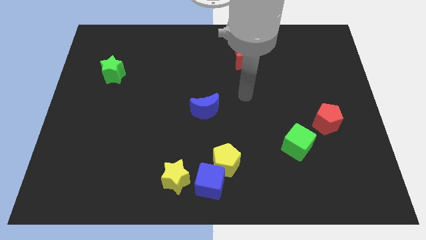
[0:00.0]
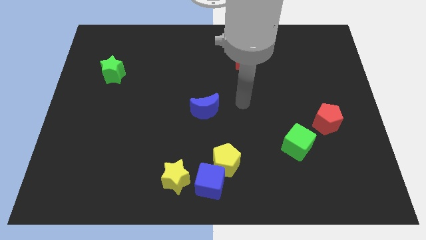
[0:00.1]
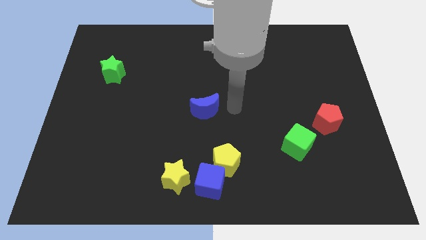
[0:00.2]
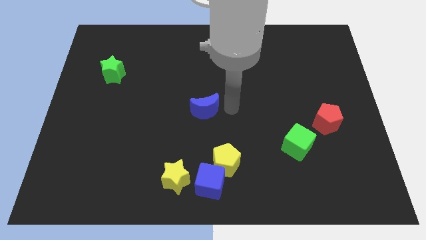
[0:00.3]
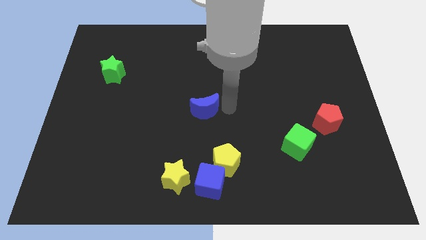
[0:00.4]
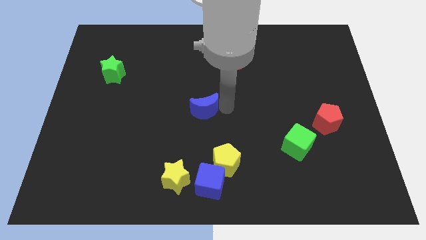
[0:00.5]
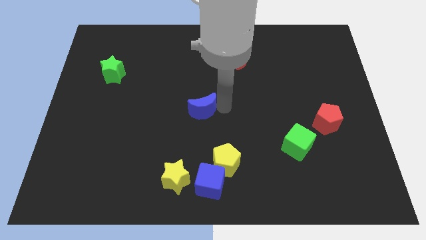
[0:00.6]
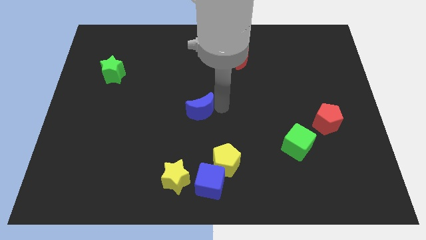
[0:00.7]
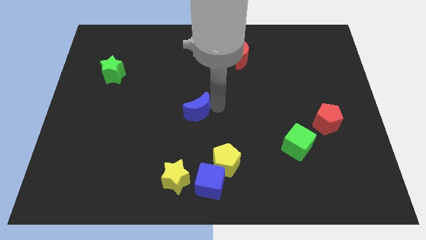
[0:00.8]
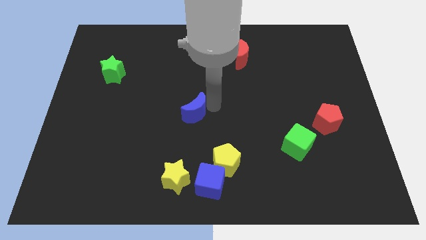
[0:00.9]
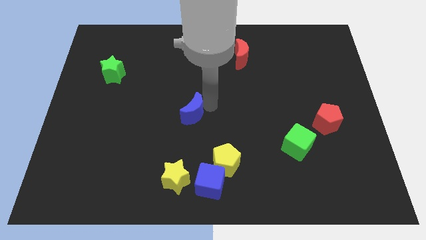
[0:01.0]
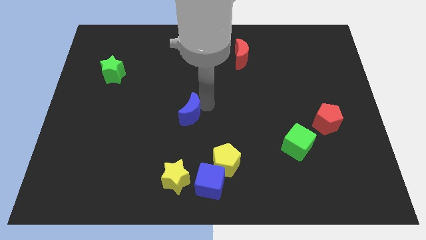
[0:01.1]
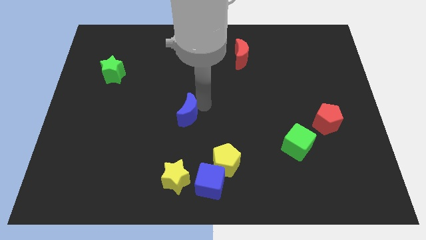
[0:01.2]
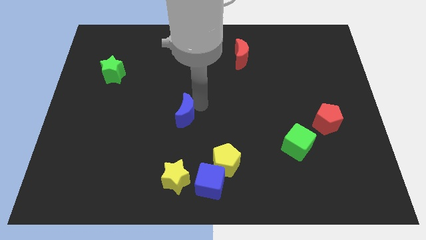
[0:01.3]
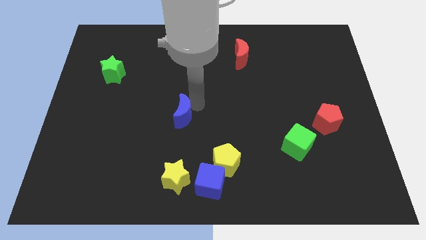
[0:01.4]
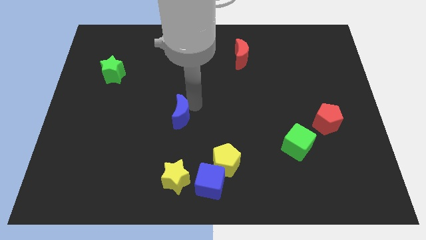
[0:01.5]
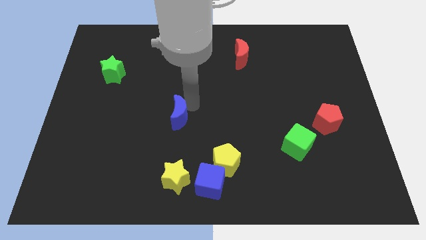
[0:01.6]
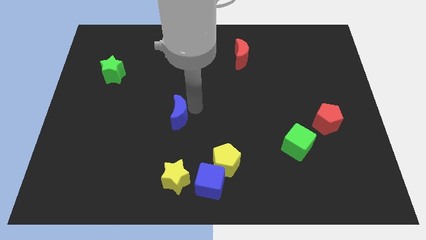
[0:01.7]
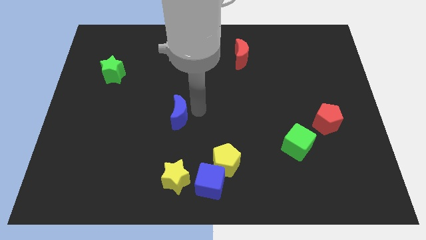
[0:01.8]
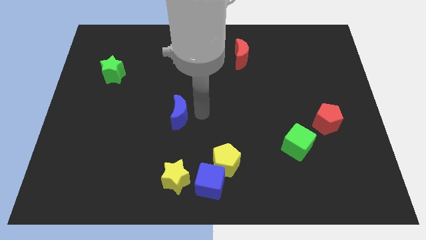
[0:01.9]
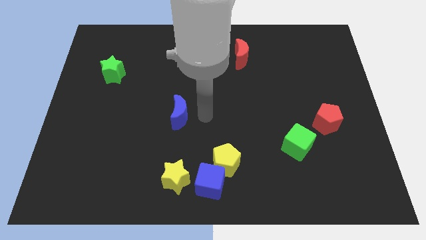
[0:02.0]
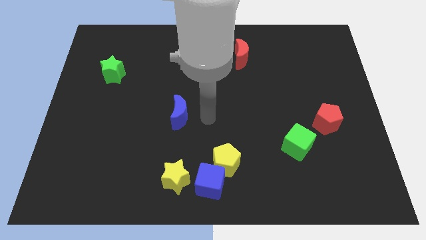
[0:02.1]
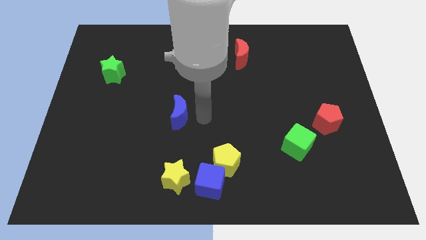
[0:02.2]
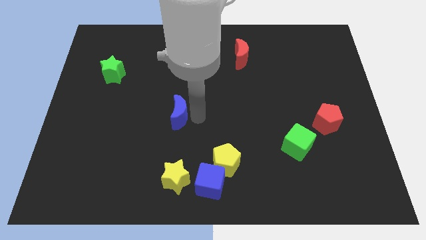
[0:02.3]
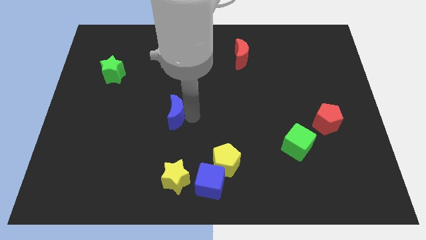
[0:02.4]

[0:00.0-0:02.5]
move the blue moon to the left a little bit

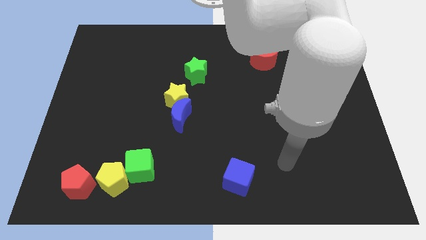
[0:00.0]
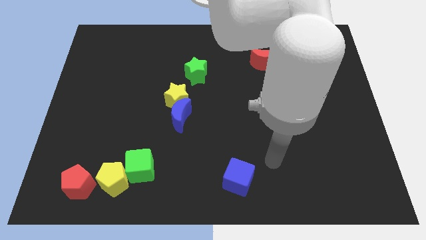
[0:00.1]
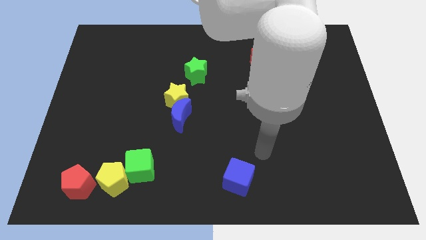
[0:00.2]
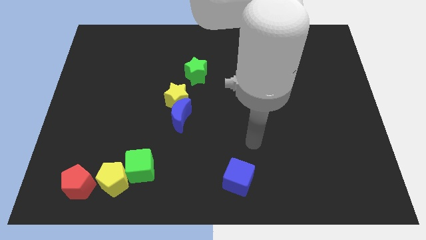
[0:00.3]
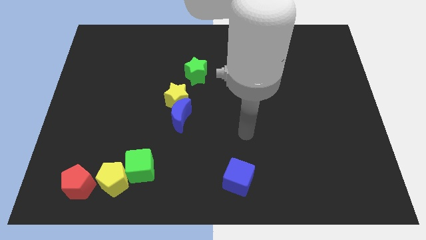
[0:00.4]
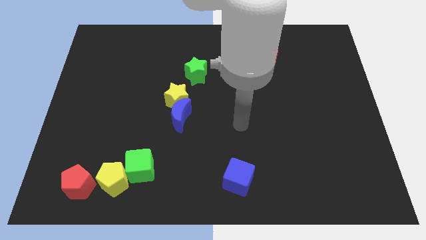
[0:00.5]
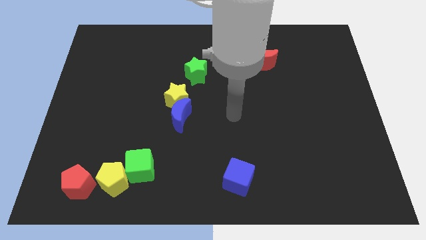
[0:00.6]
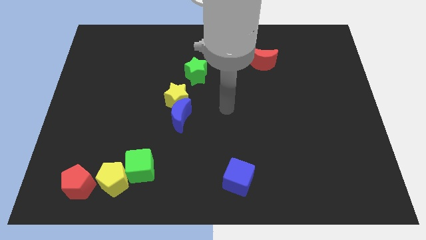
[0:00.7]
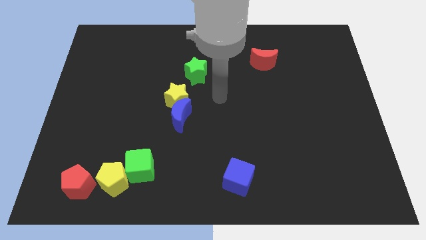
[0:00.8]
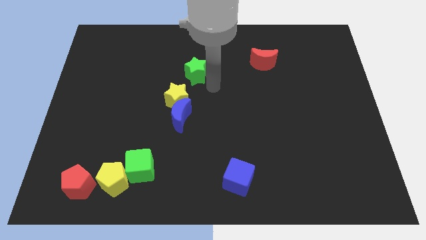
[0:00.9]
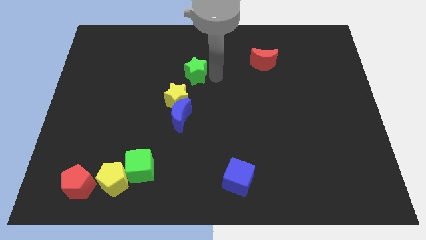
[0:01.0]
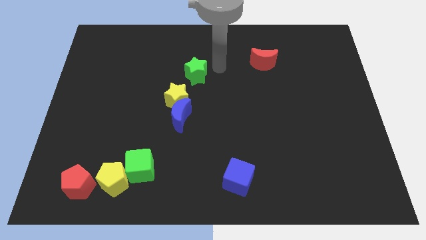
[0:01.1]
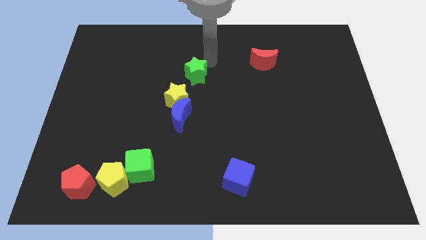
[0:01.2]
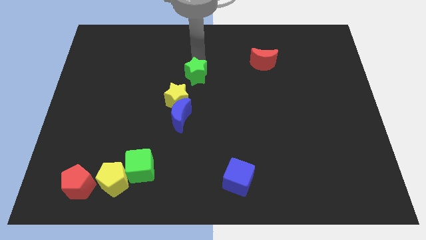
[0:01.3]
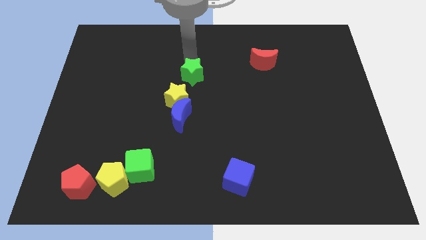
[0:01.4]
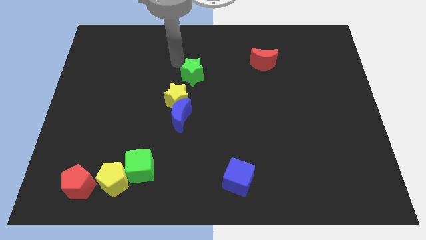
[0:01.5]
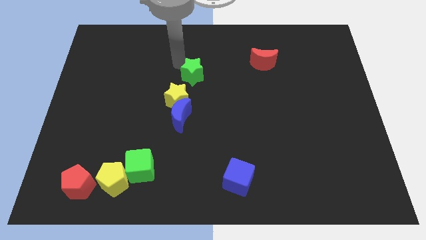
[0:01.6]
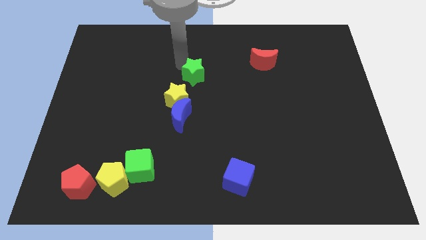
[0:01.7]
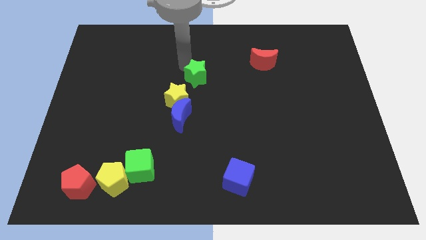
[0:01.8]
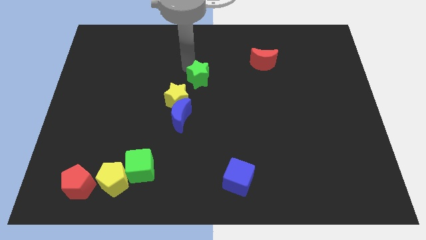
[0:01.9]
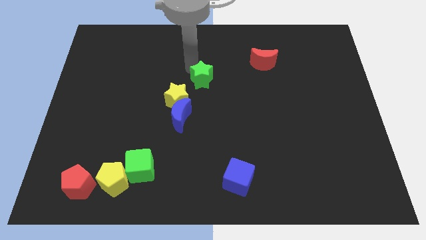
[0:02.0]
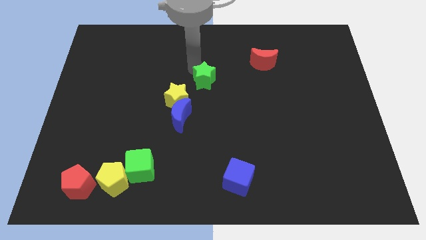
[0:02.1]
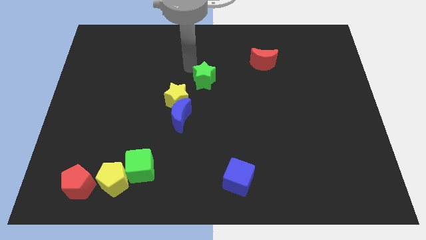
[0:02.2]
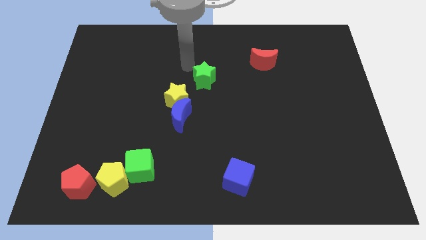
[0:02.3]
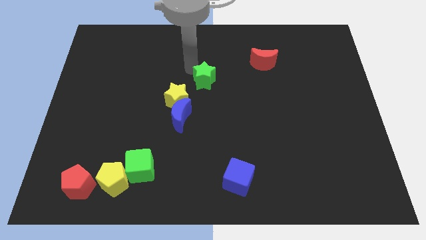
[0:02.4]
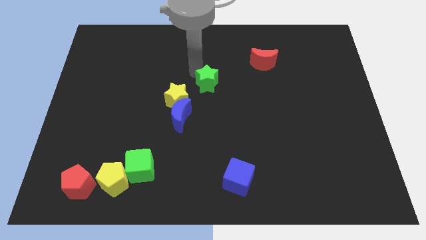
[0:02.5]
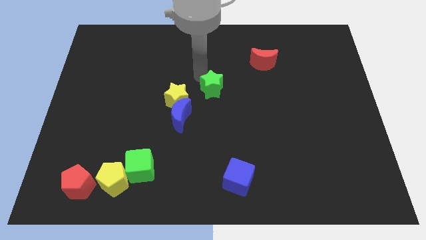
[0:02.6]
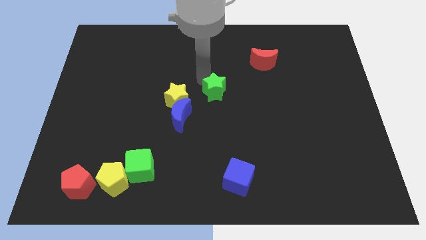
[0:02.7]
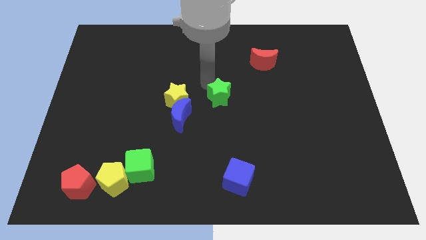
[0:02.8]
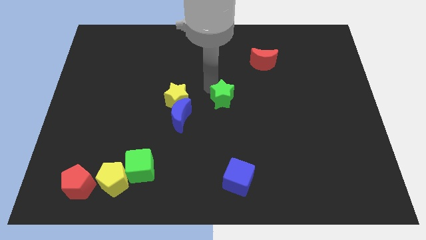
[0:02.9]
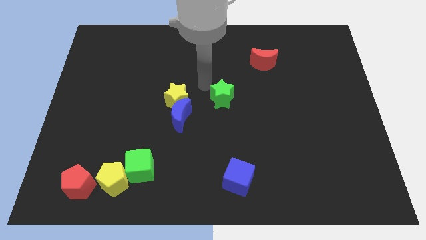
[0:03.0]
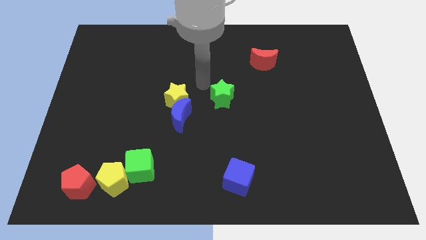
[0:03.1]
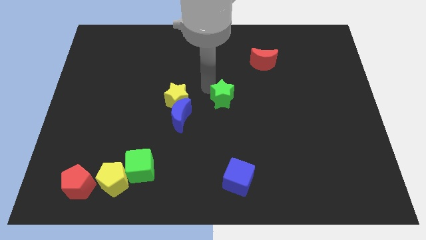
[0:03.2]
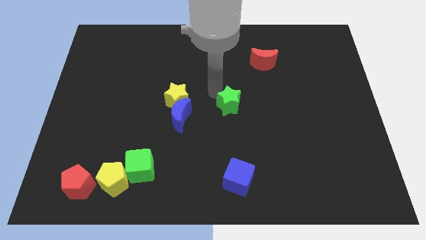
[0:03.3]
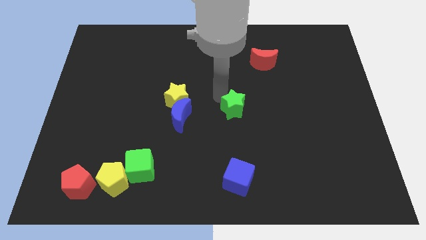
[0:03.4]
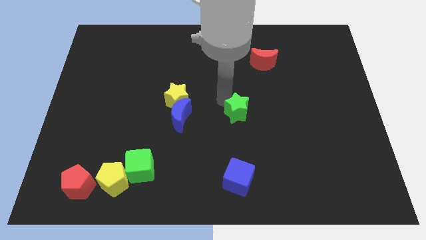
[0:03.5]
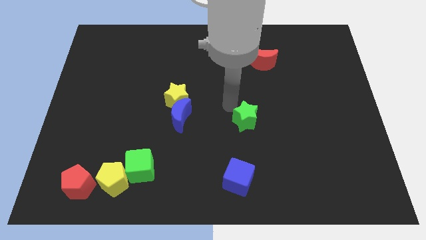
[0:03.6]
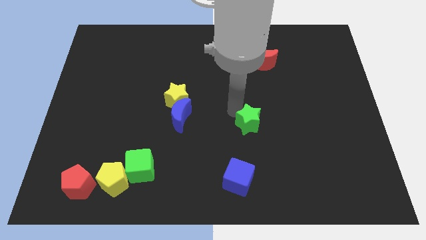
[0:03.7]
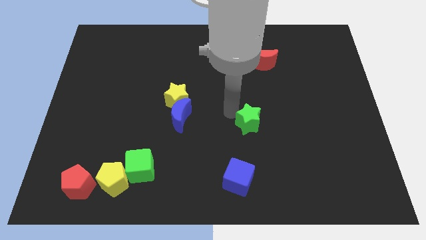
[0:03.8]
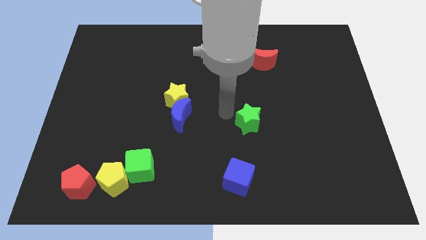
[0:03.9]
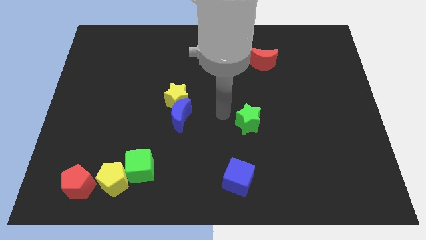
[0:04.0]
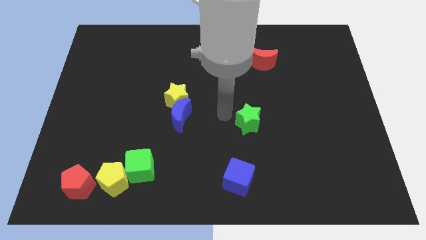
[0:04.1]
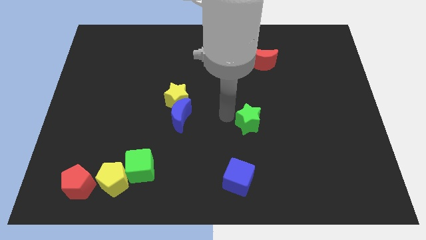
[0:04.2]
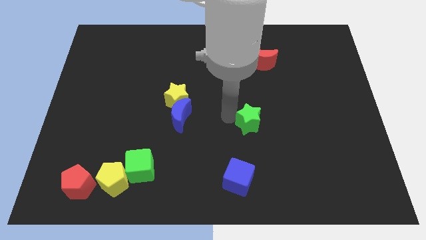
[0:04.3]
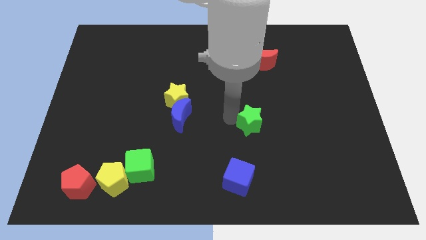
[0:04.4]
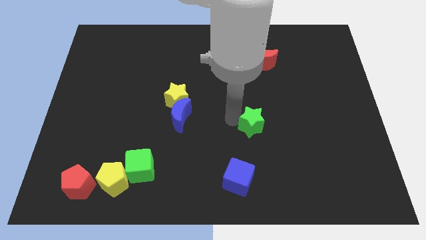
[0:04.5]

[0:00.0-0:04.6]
move the green star downwards and then to the right

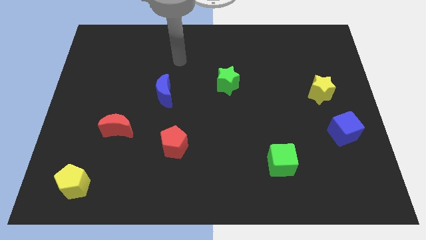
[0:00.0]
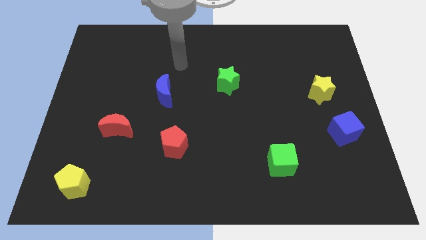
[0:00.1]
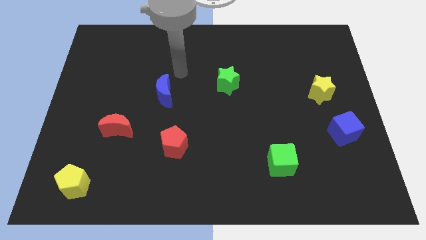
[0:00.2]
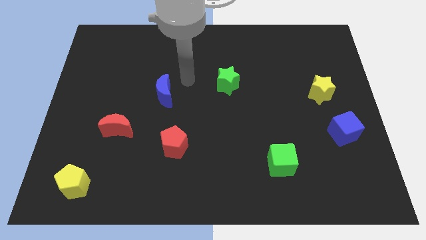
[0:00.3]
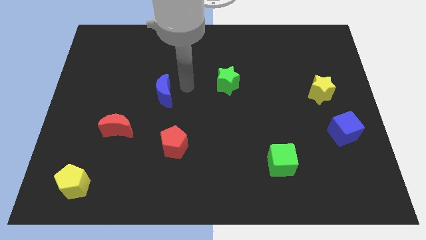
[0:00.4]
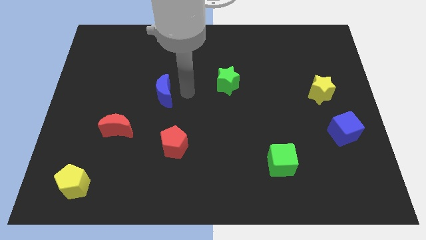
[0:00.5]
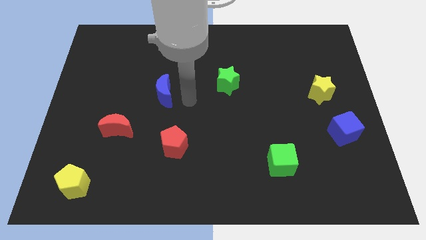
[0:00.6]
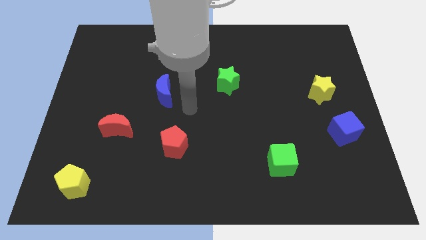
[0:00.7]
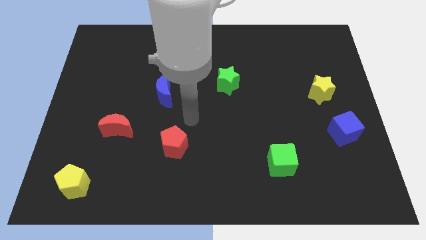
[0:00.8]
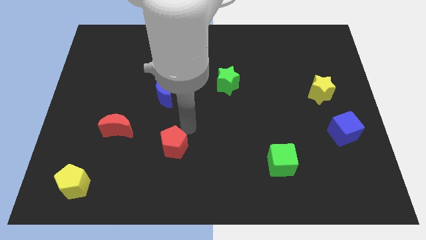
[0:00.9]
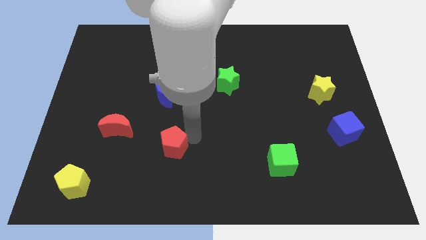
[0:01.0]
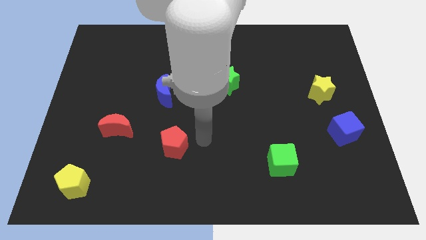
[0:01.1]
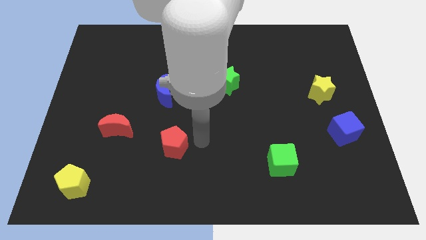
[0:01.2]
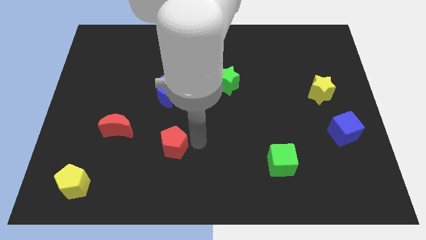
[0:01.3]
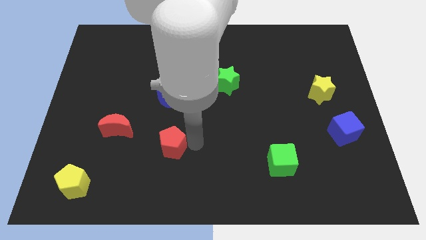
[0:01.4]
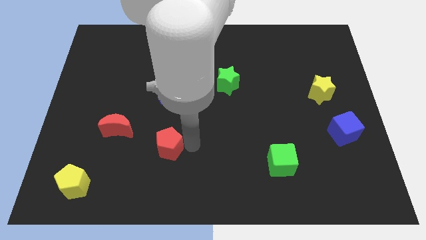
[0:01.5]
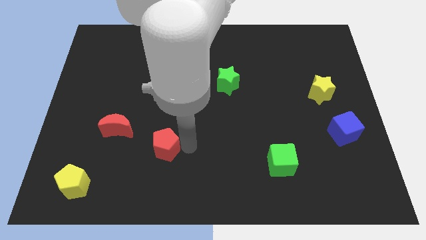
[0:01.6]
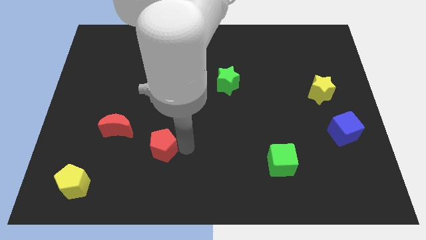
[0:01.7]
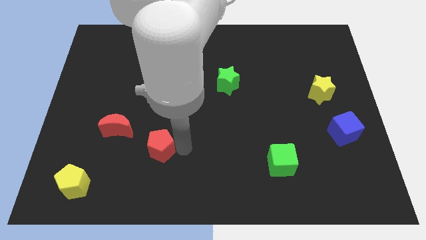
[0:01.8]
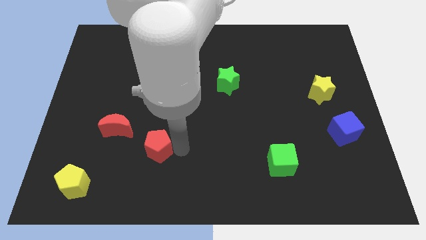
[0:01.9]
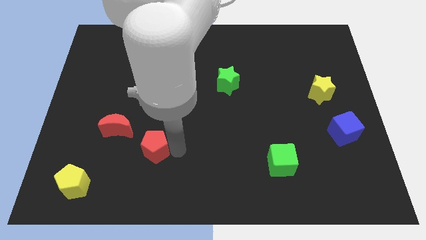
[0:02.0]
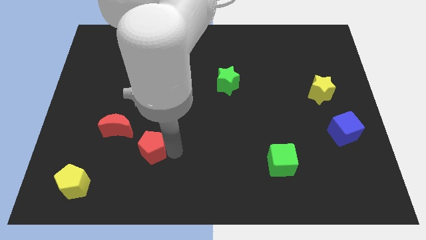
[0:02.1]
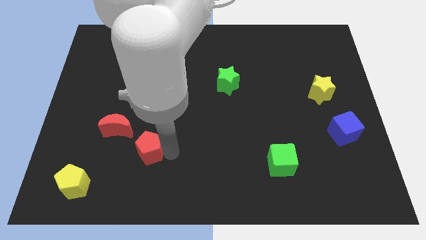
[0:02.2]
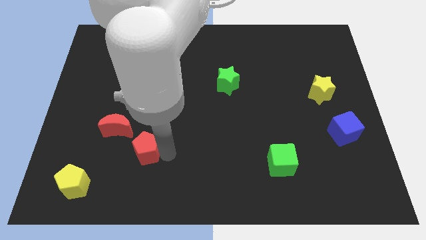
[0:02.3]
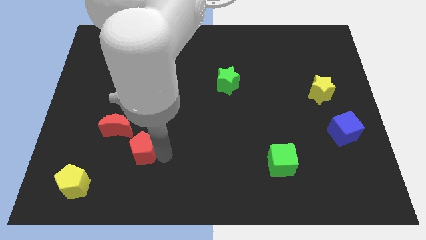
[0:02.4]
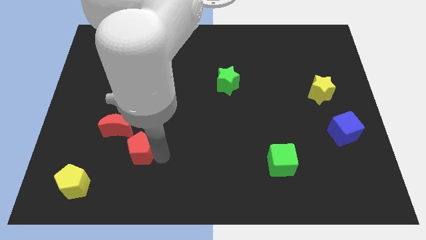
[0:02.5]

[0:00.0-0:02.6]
move the red pentagon left slightly
